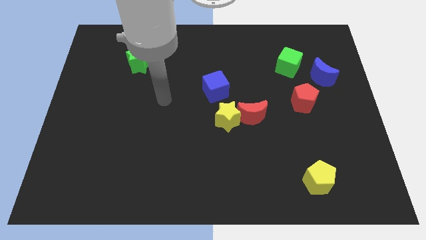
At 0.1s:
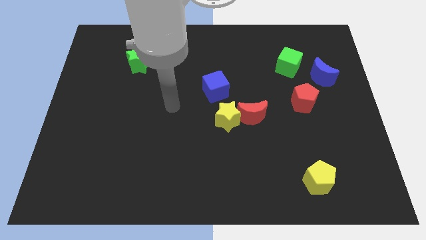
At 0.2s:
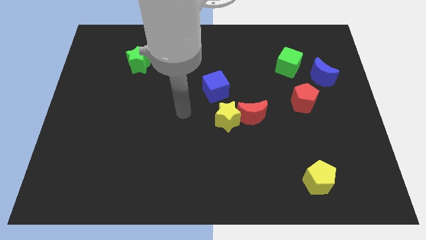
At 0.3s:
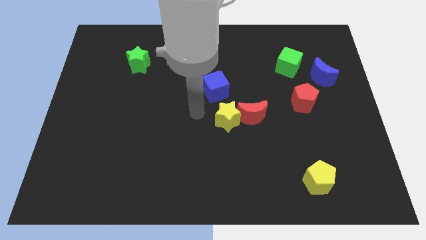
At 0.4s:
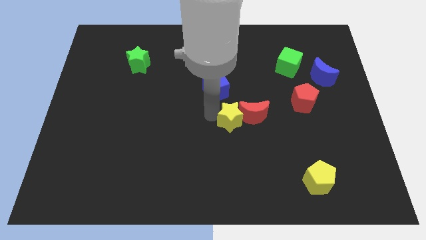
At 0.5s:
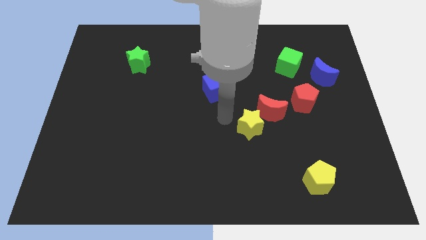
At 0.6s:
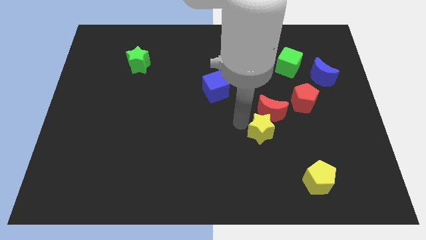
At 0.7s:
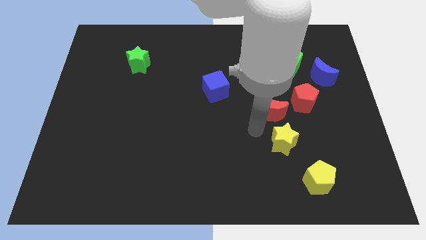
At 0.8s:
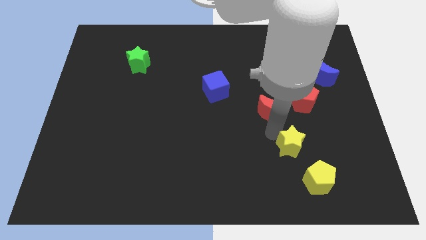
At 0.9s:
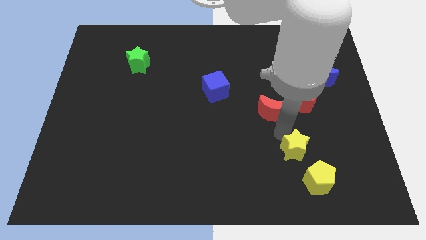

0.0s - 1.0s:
move the red moon away from the yellow star

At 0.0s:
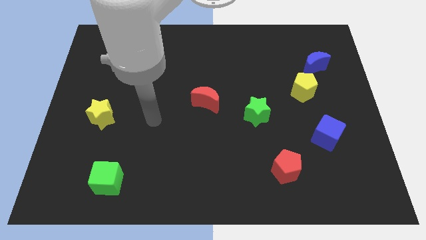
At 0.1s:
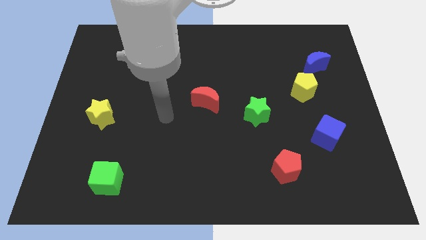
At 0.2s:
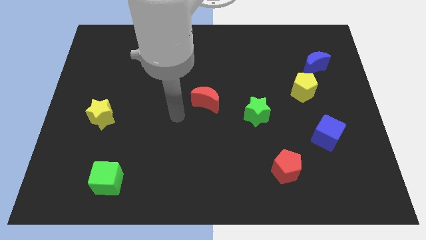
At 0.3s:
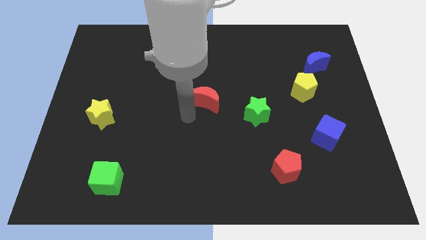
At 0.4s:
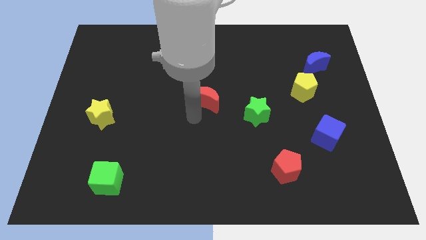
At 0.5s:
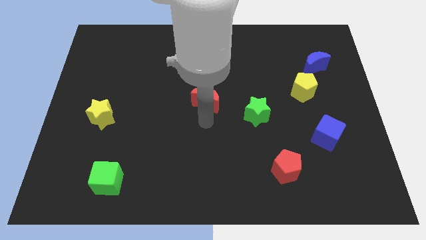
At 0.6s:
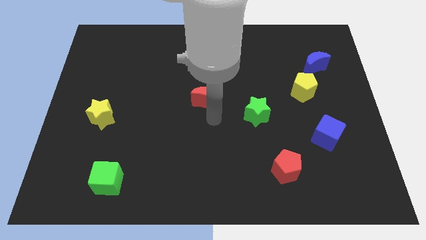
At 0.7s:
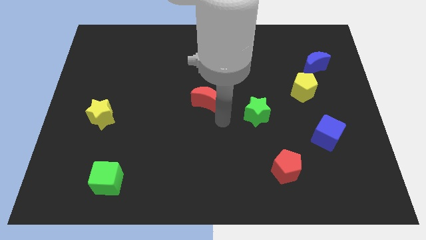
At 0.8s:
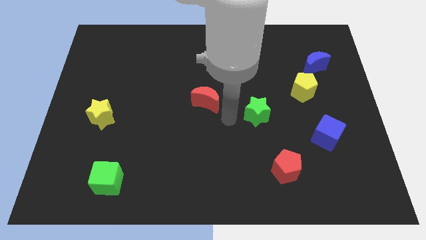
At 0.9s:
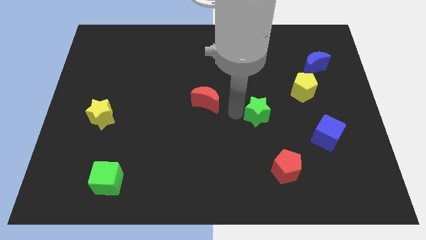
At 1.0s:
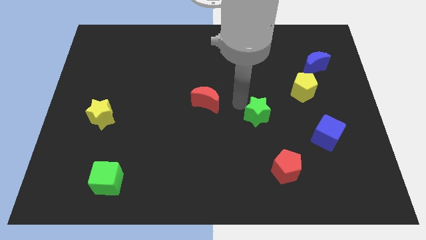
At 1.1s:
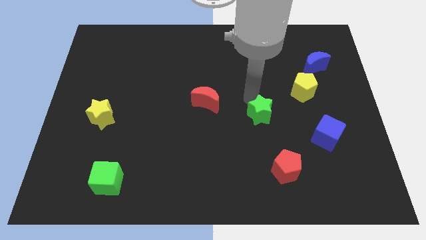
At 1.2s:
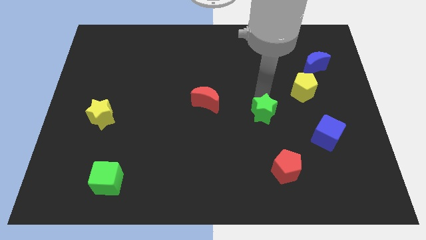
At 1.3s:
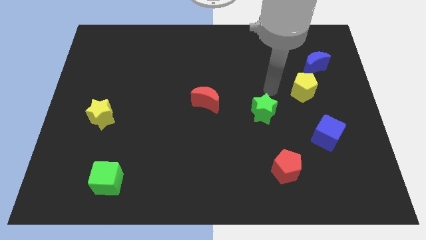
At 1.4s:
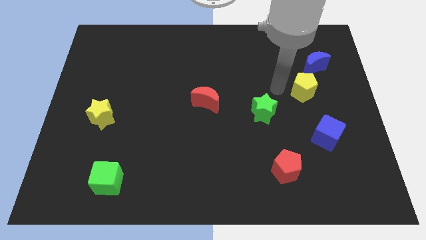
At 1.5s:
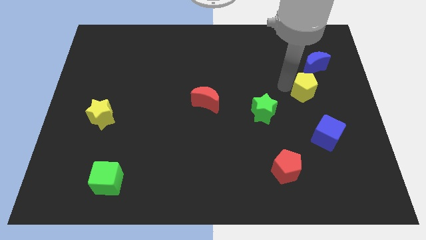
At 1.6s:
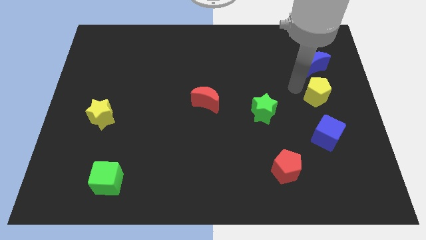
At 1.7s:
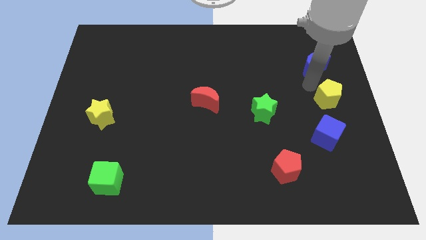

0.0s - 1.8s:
separate the blue moon from the yellow pentagon

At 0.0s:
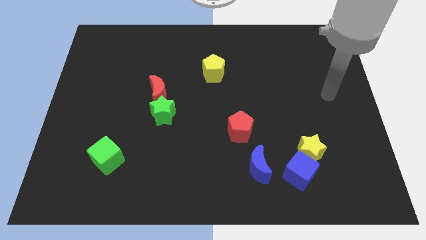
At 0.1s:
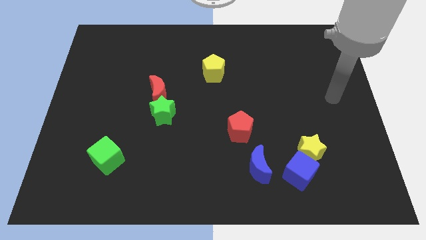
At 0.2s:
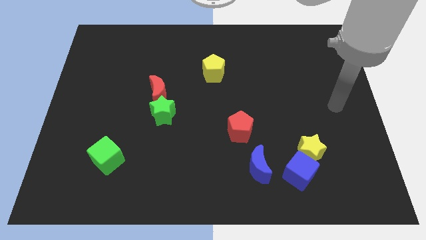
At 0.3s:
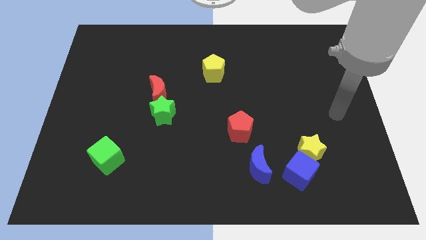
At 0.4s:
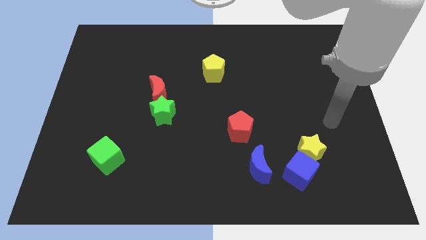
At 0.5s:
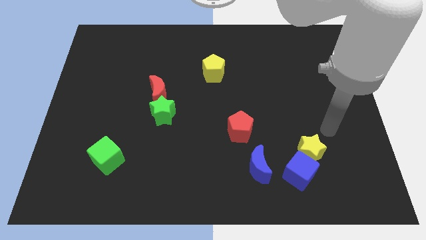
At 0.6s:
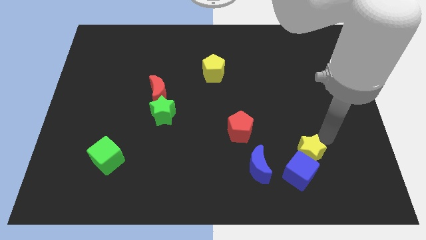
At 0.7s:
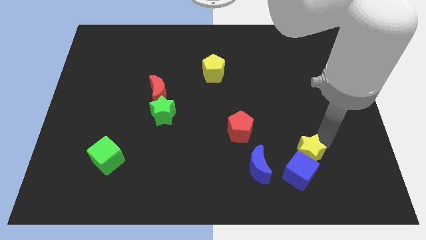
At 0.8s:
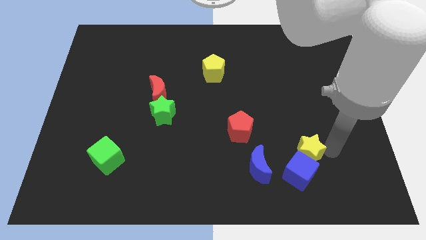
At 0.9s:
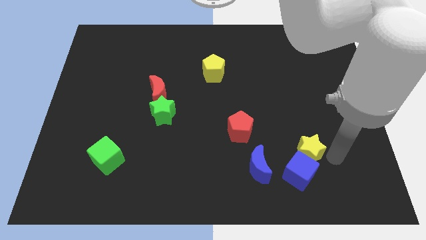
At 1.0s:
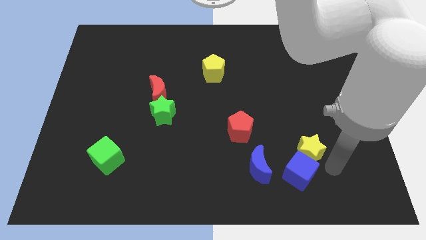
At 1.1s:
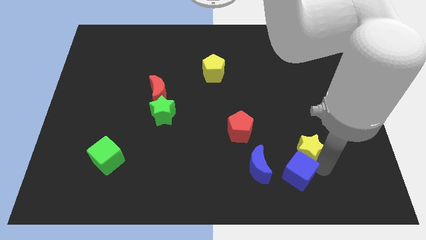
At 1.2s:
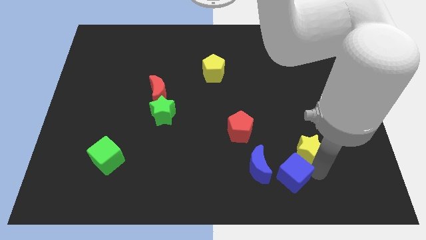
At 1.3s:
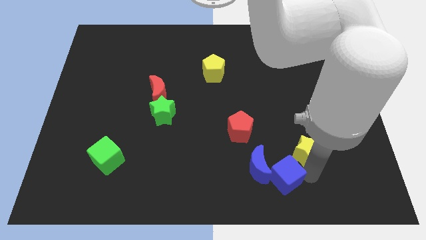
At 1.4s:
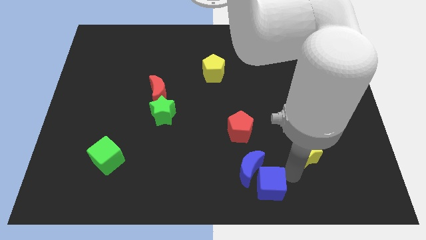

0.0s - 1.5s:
pull the yellow star apart from the blue cube

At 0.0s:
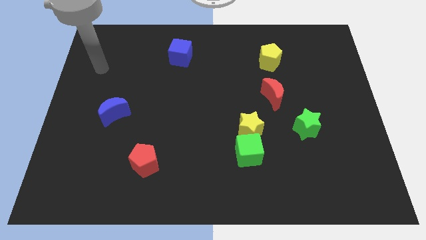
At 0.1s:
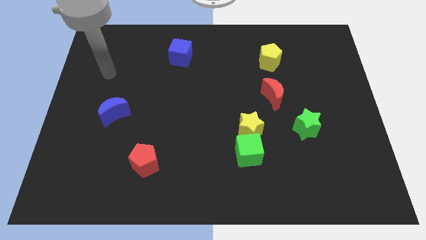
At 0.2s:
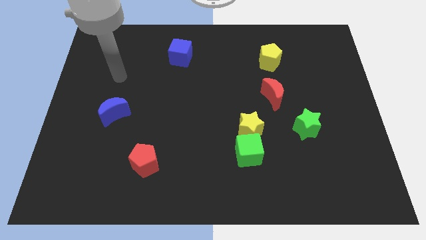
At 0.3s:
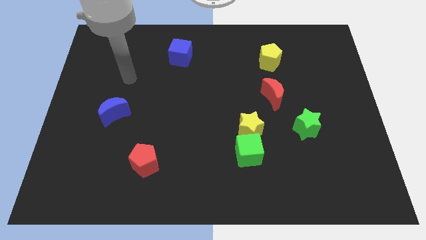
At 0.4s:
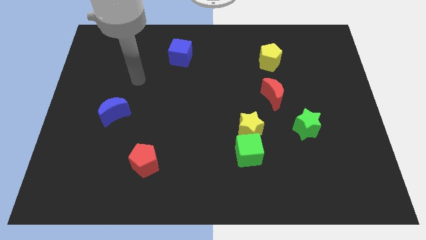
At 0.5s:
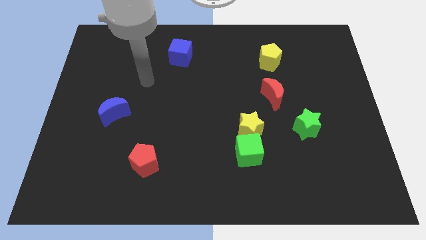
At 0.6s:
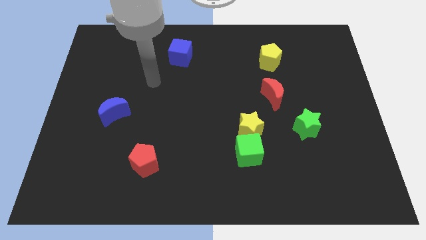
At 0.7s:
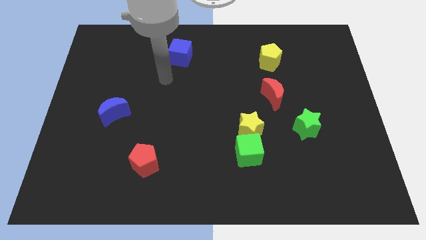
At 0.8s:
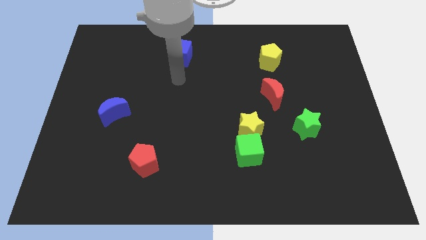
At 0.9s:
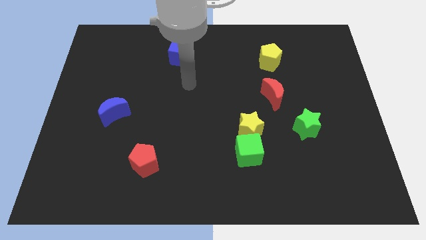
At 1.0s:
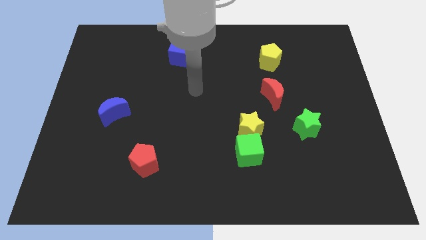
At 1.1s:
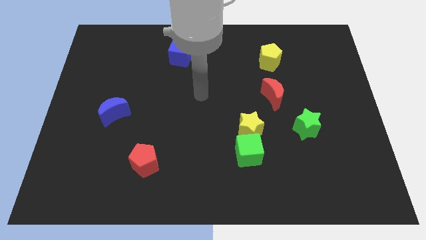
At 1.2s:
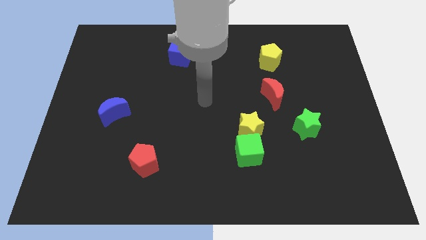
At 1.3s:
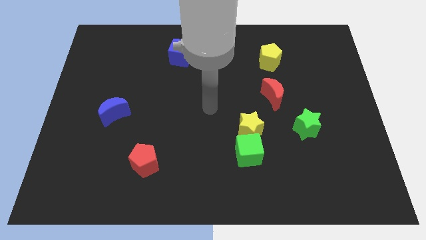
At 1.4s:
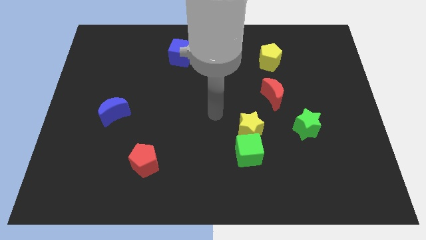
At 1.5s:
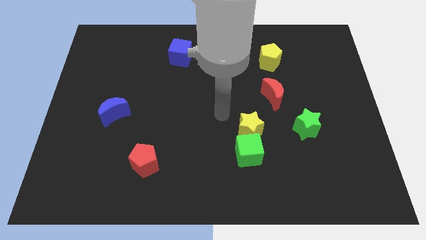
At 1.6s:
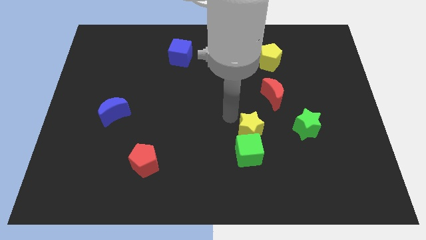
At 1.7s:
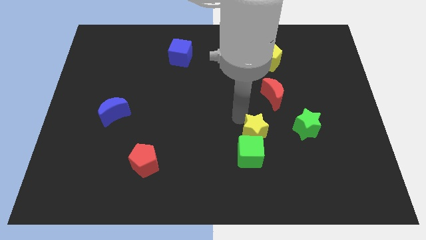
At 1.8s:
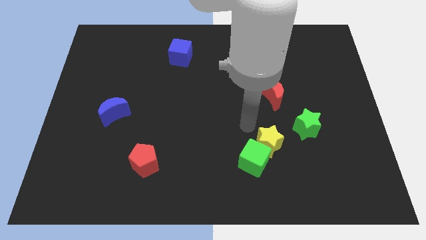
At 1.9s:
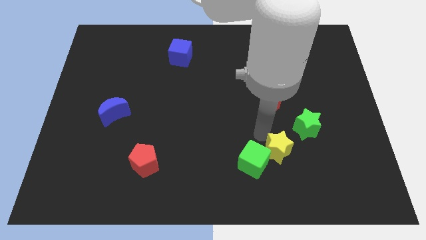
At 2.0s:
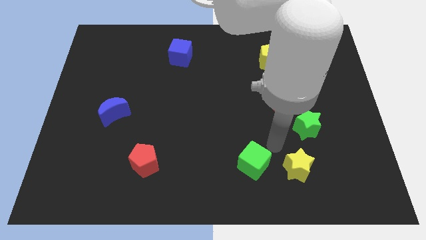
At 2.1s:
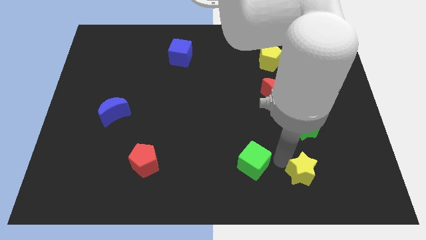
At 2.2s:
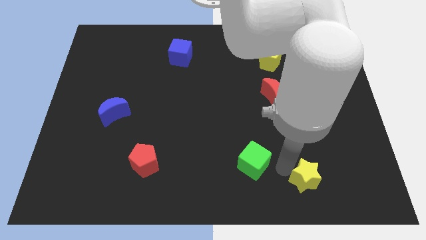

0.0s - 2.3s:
pull the green cube apart from the yellow star

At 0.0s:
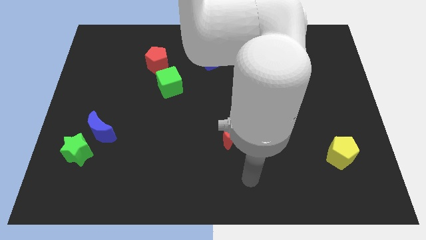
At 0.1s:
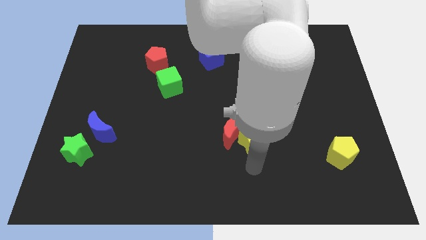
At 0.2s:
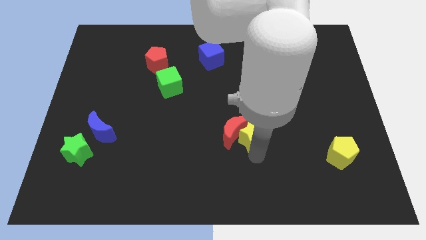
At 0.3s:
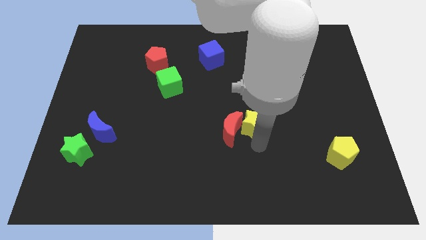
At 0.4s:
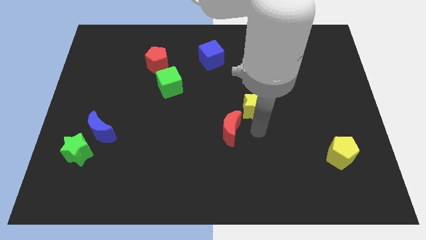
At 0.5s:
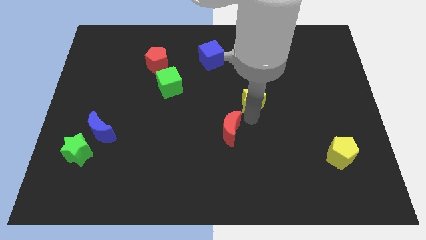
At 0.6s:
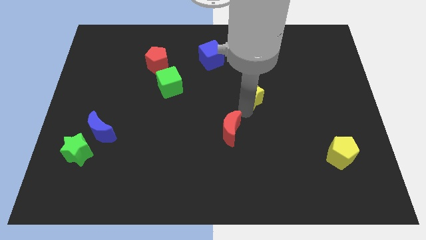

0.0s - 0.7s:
separate the red moon from the yellow star

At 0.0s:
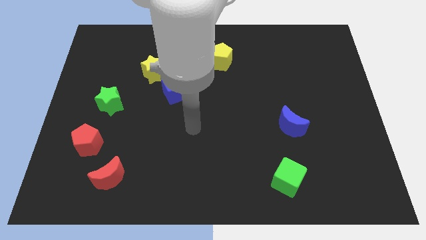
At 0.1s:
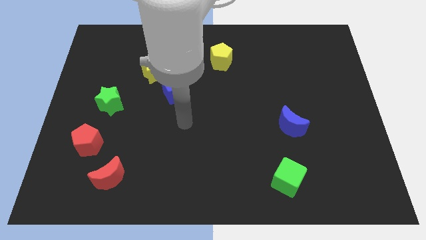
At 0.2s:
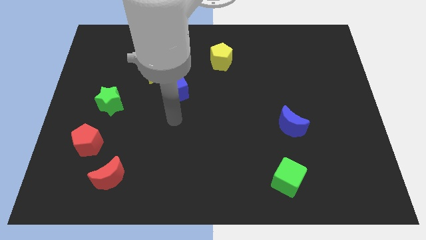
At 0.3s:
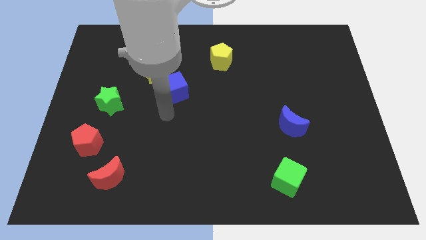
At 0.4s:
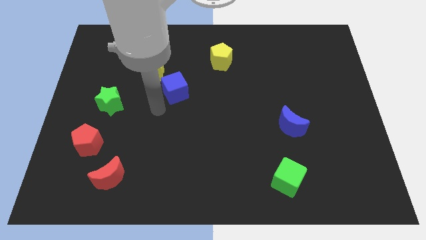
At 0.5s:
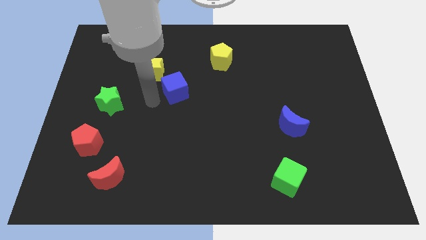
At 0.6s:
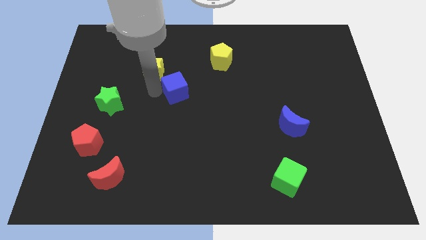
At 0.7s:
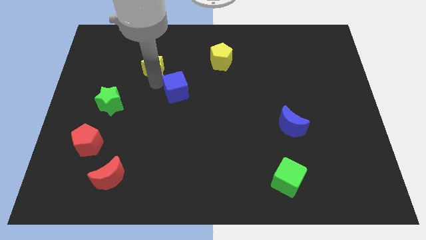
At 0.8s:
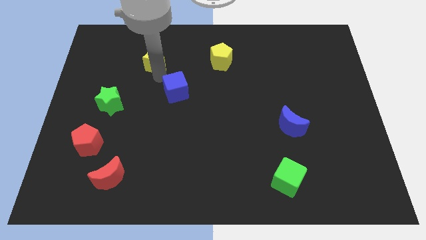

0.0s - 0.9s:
move the blue cube away from the yellow star

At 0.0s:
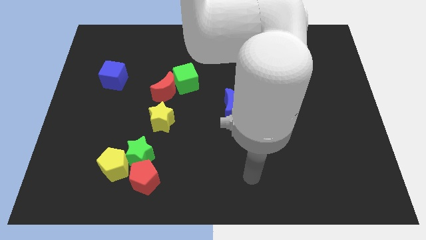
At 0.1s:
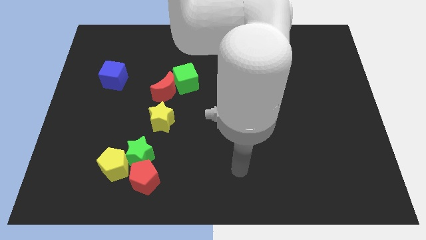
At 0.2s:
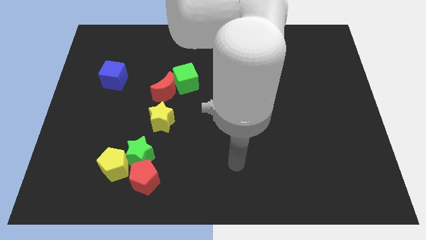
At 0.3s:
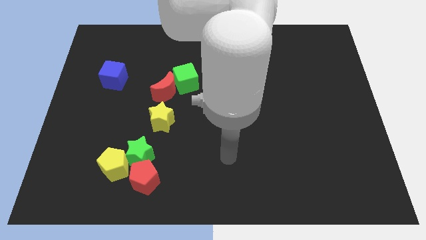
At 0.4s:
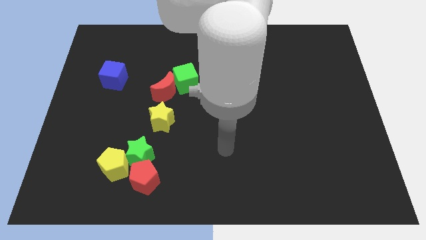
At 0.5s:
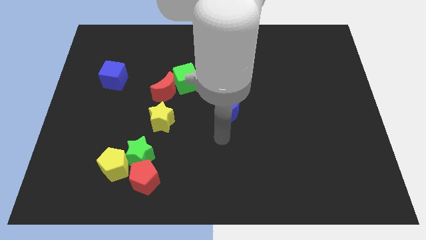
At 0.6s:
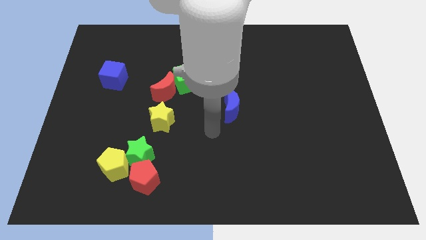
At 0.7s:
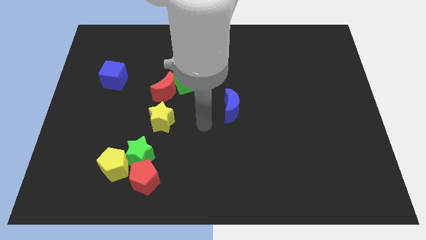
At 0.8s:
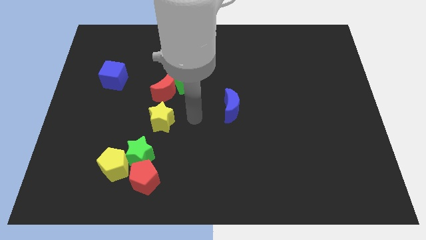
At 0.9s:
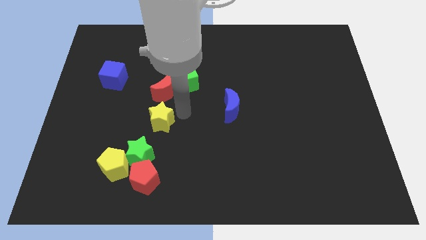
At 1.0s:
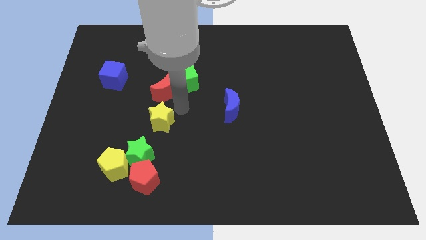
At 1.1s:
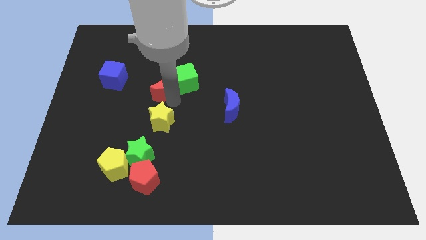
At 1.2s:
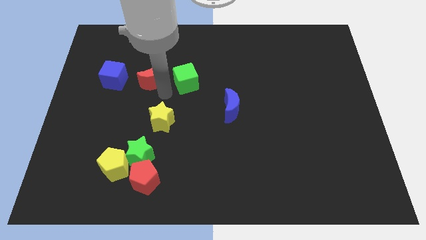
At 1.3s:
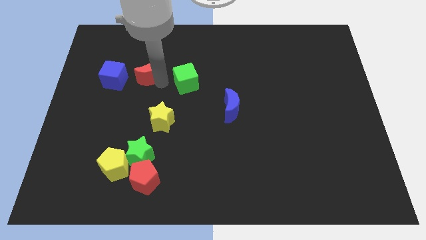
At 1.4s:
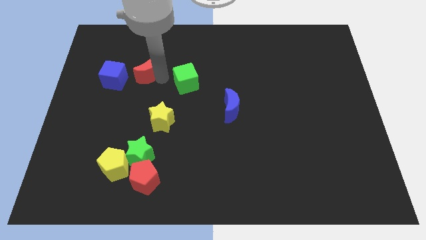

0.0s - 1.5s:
separate the green cube from the red moon
